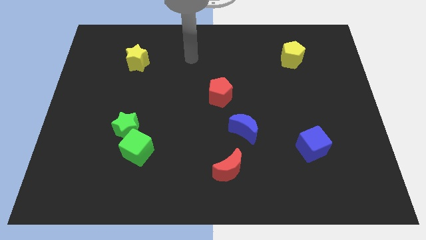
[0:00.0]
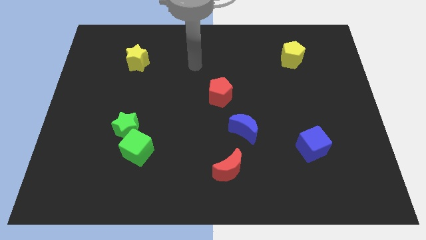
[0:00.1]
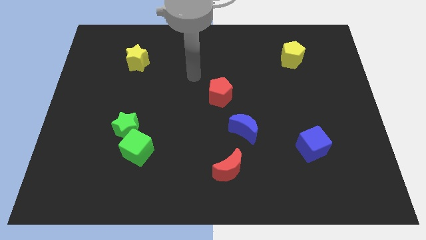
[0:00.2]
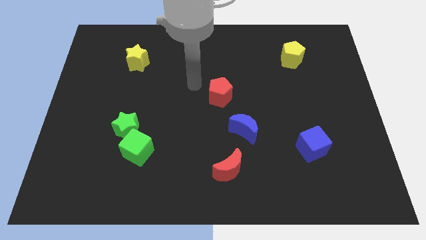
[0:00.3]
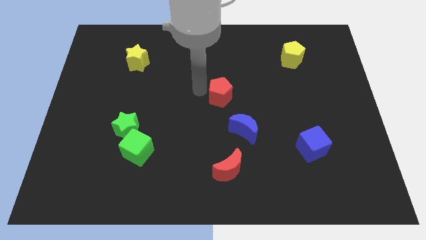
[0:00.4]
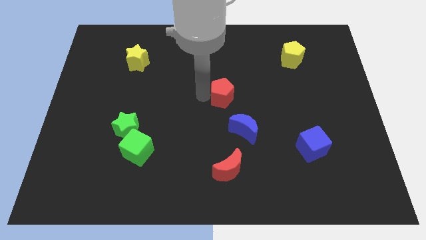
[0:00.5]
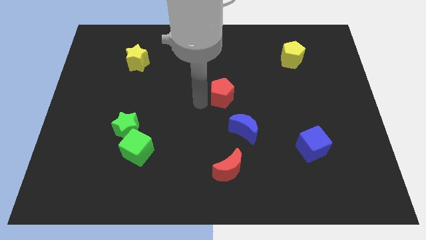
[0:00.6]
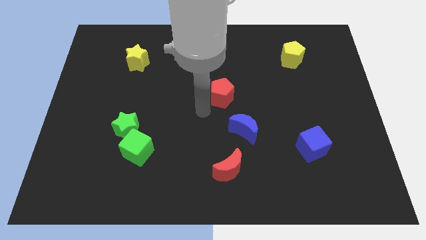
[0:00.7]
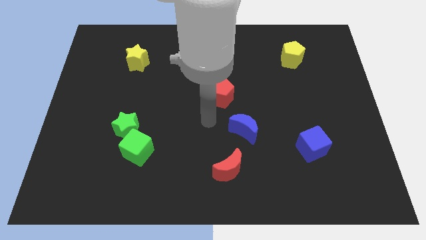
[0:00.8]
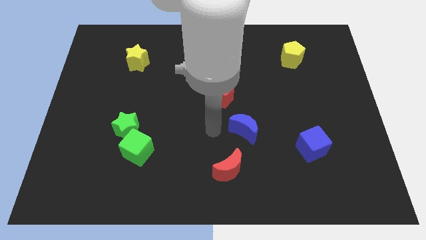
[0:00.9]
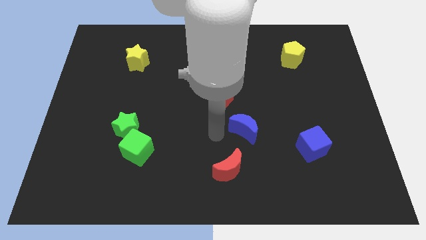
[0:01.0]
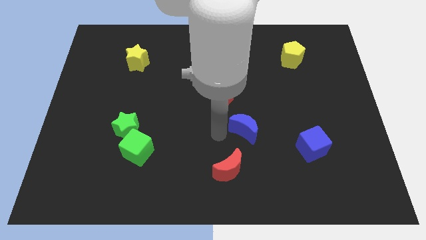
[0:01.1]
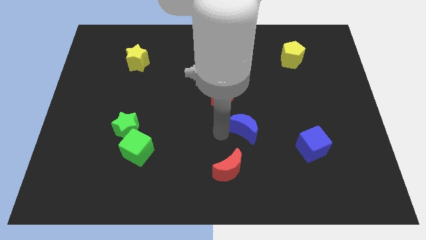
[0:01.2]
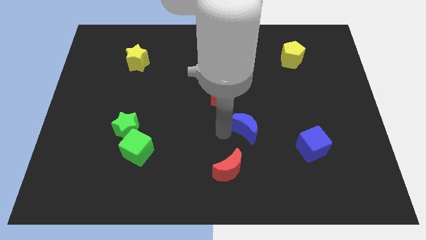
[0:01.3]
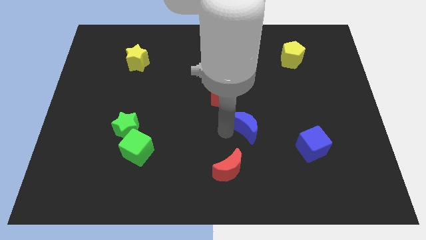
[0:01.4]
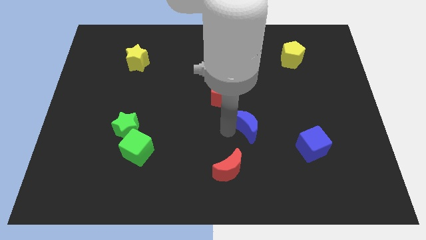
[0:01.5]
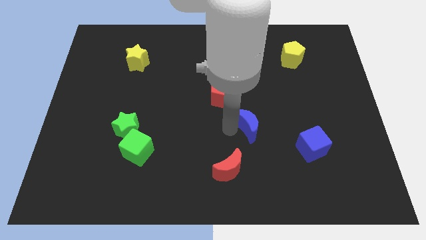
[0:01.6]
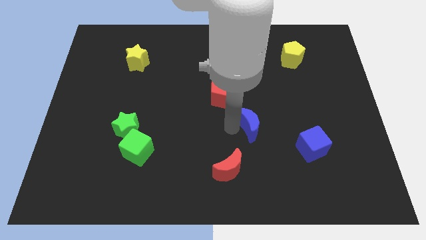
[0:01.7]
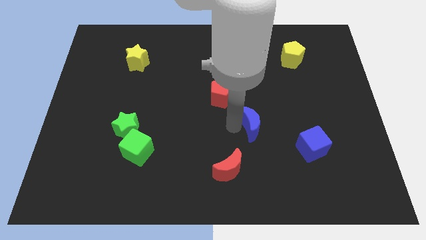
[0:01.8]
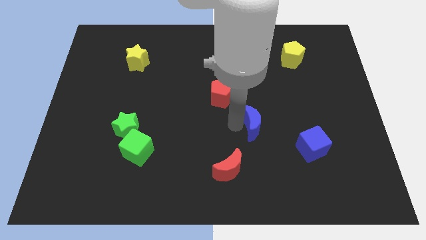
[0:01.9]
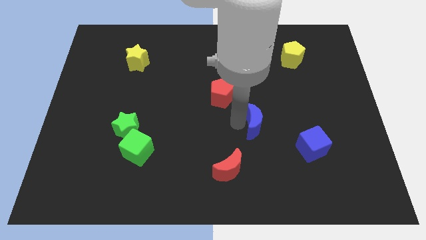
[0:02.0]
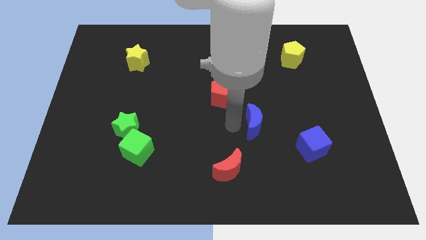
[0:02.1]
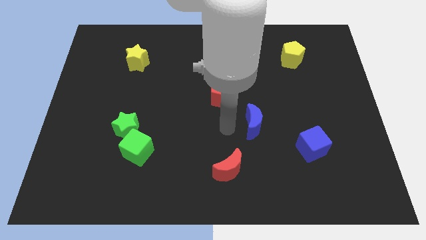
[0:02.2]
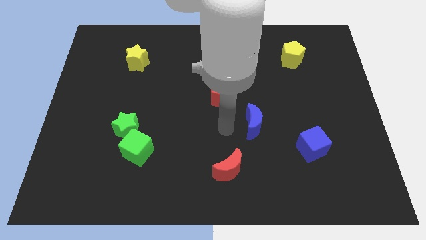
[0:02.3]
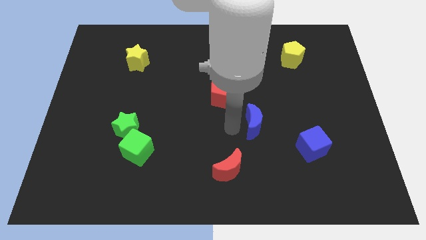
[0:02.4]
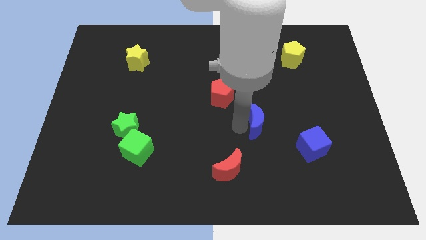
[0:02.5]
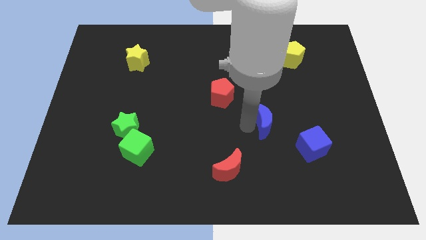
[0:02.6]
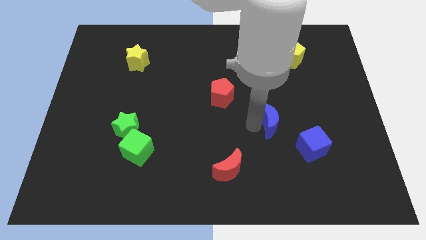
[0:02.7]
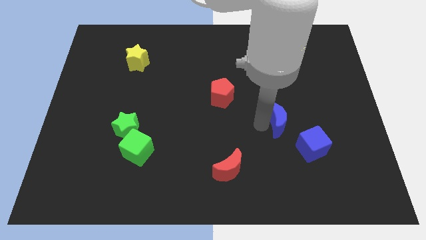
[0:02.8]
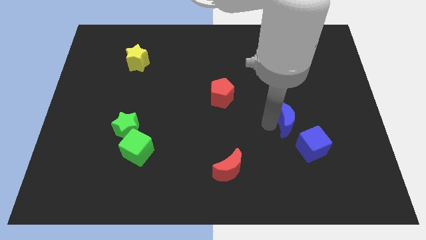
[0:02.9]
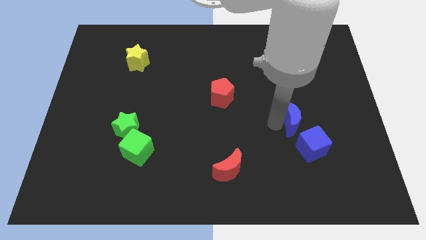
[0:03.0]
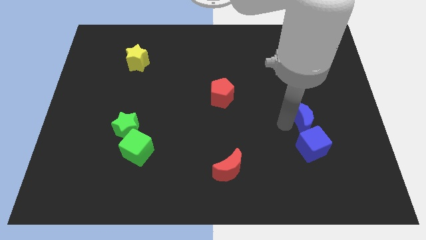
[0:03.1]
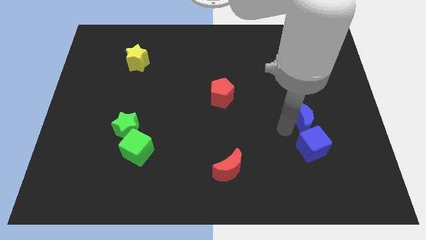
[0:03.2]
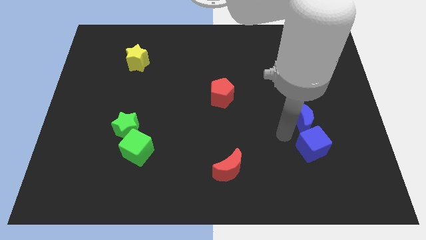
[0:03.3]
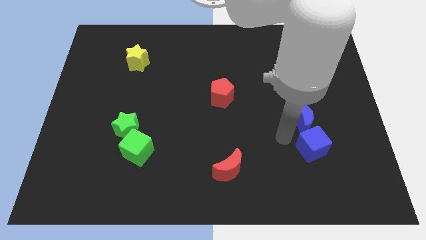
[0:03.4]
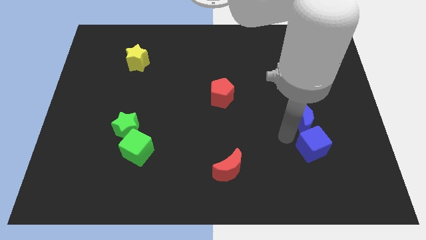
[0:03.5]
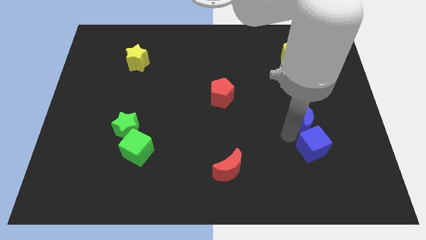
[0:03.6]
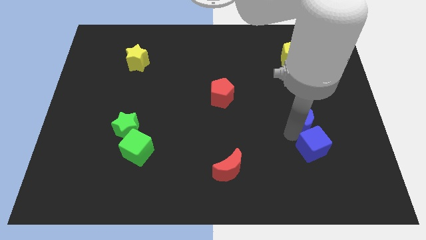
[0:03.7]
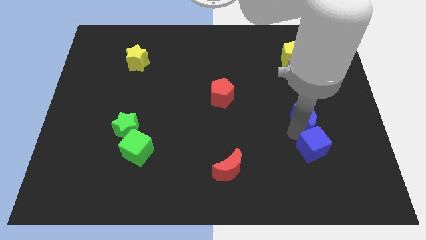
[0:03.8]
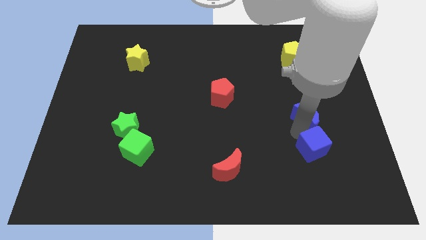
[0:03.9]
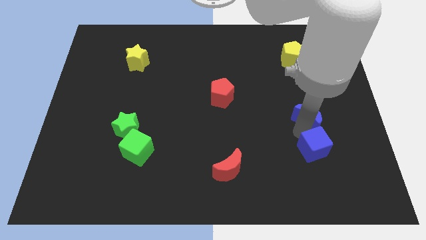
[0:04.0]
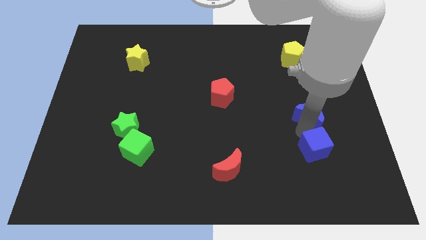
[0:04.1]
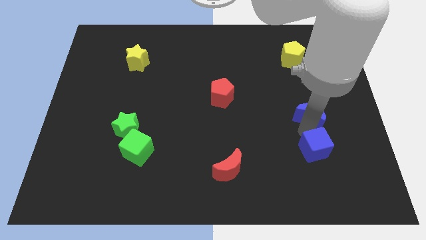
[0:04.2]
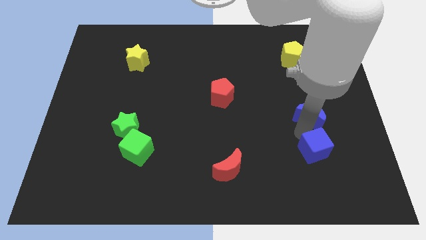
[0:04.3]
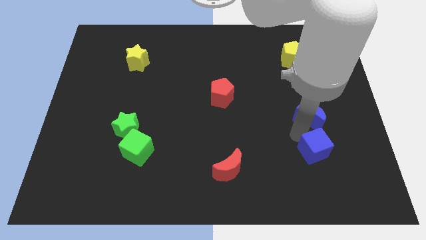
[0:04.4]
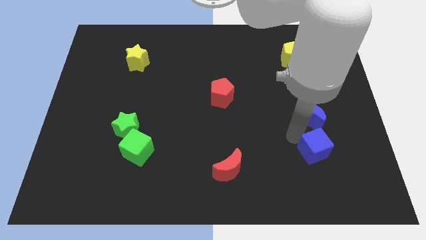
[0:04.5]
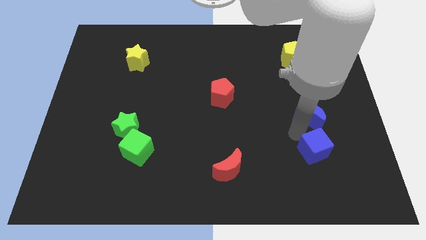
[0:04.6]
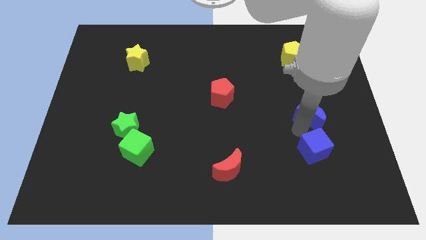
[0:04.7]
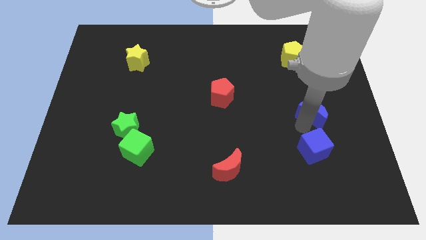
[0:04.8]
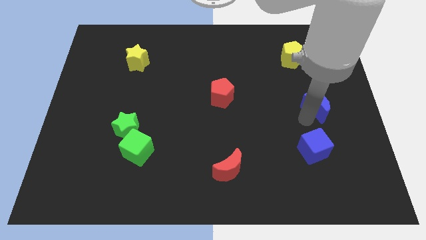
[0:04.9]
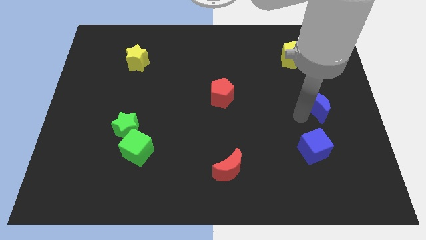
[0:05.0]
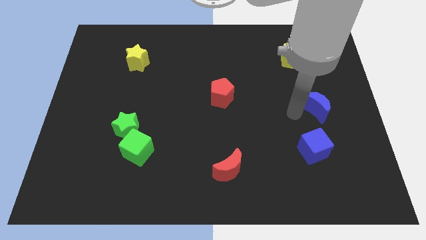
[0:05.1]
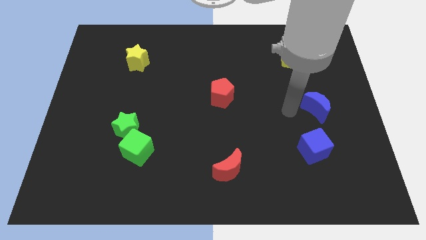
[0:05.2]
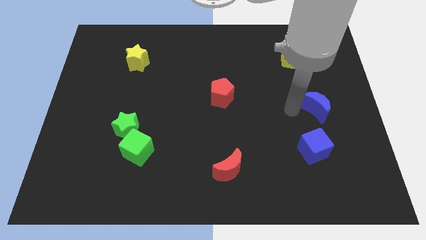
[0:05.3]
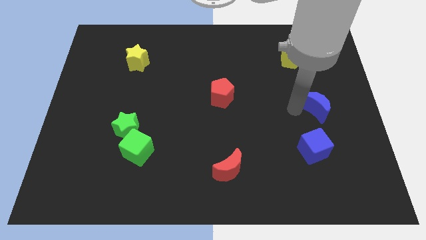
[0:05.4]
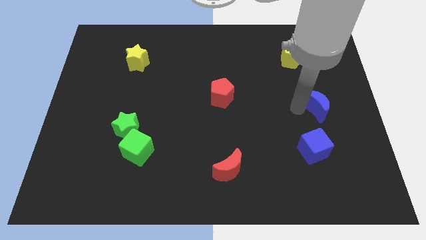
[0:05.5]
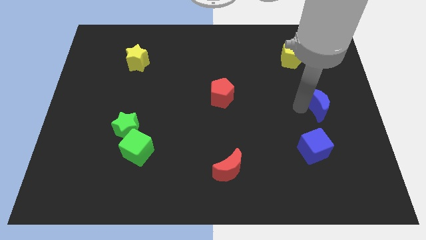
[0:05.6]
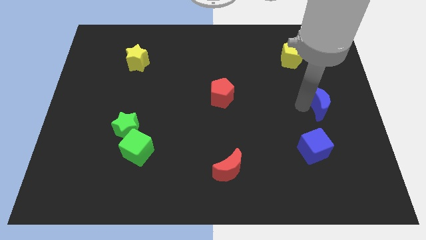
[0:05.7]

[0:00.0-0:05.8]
put the blue moon to the right side

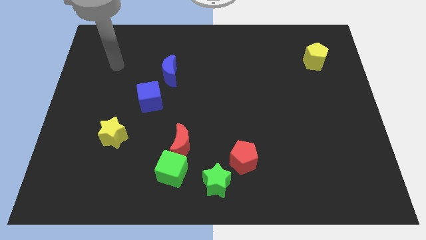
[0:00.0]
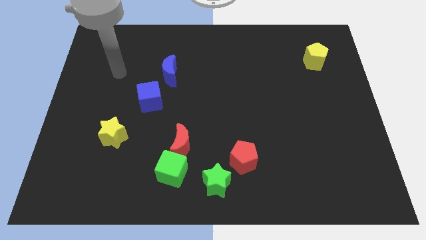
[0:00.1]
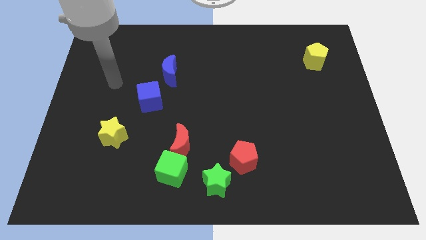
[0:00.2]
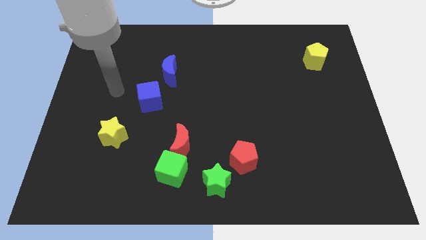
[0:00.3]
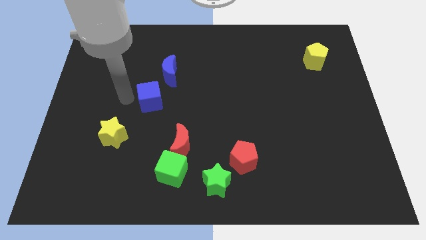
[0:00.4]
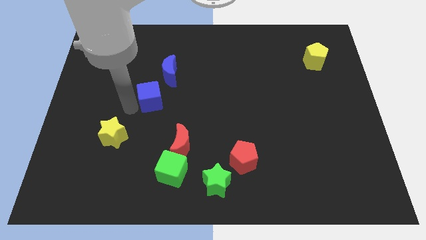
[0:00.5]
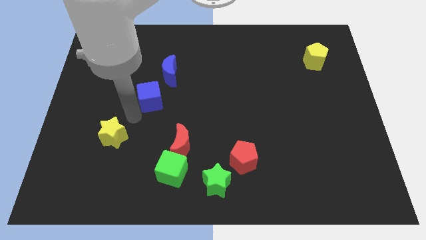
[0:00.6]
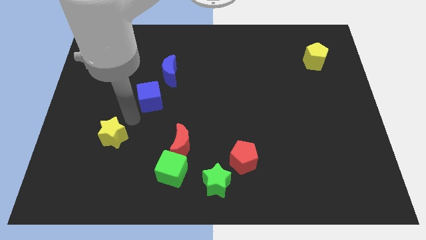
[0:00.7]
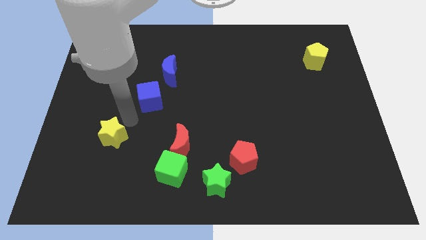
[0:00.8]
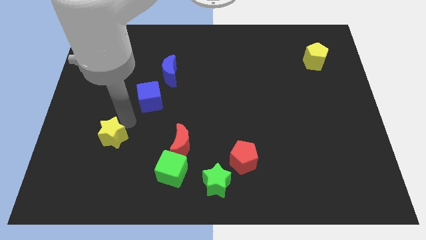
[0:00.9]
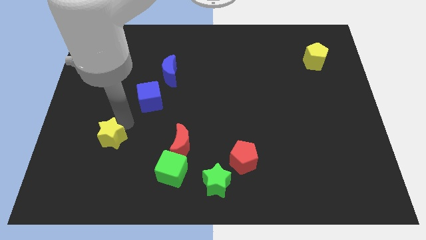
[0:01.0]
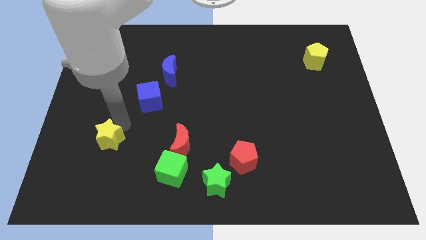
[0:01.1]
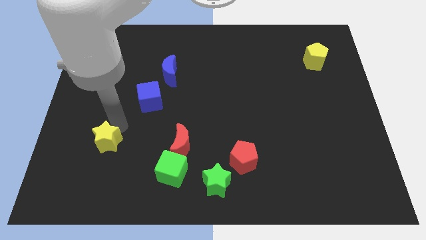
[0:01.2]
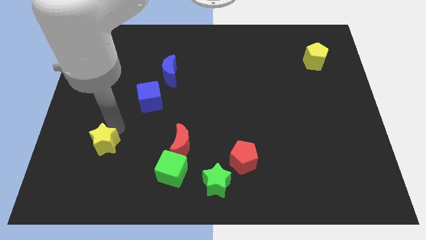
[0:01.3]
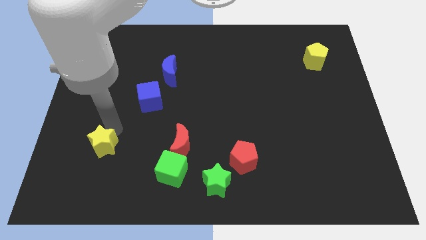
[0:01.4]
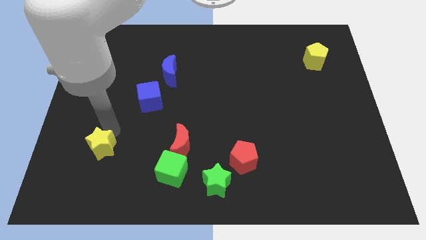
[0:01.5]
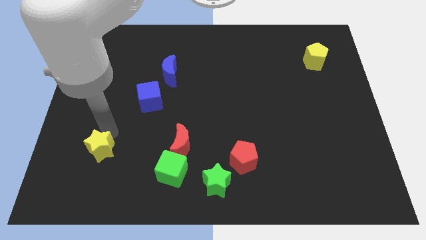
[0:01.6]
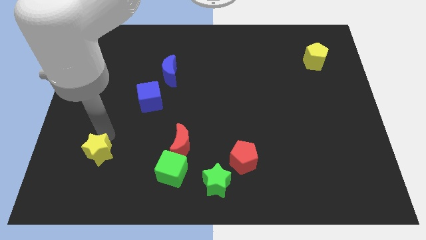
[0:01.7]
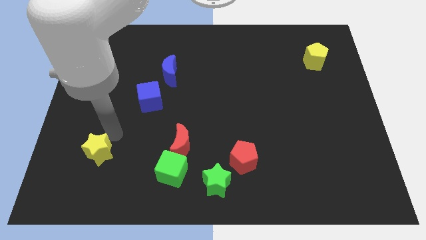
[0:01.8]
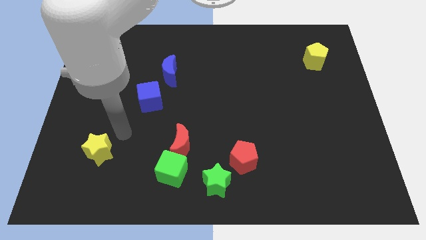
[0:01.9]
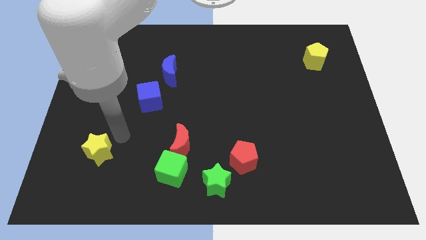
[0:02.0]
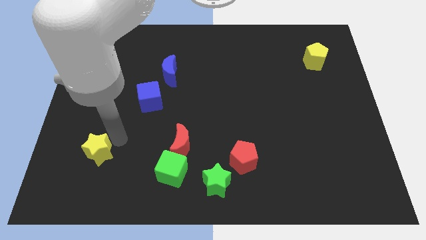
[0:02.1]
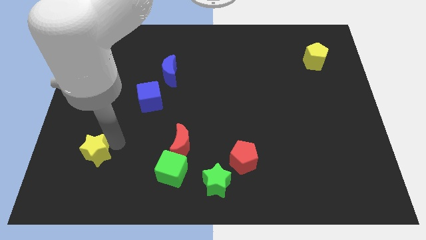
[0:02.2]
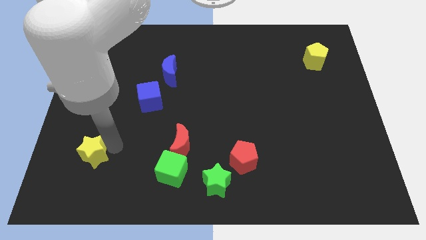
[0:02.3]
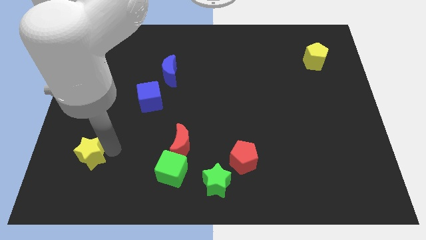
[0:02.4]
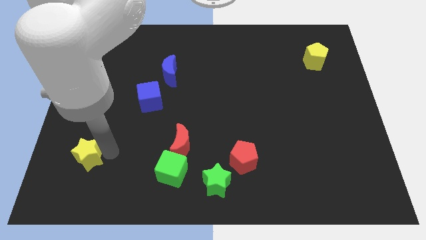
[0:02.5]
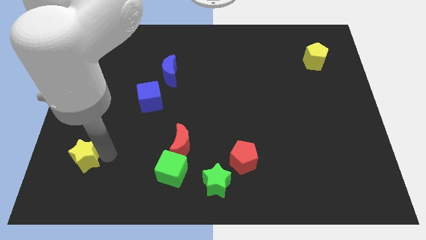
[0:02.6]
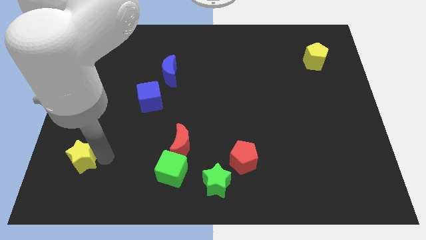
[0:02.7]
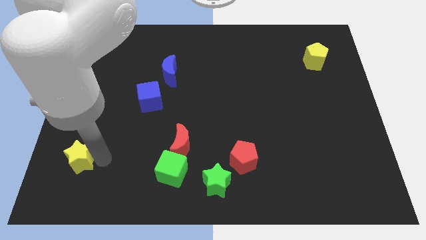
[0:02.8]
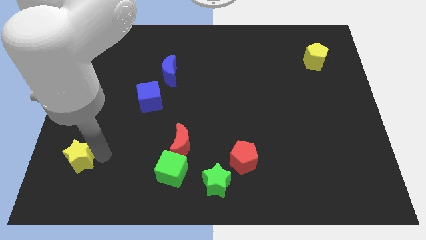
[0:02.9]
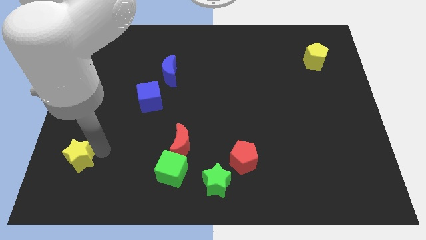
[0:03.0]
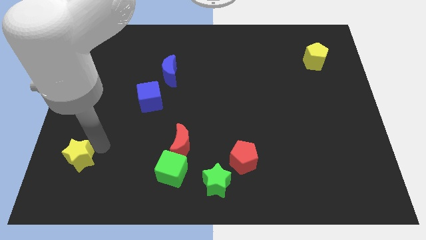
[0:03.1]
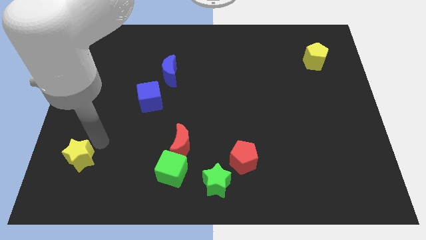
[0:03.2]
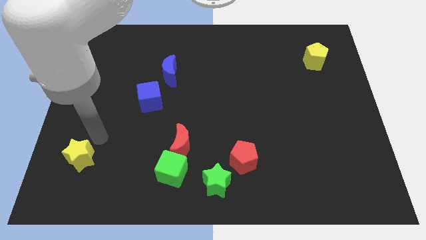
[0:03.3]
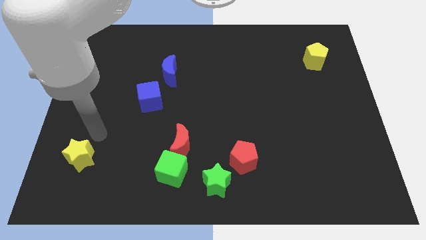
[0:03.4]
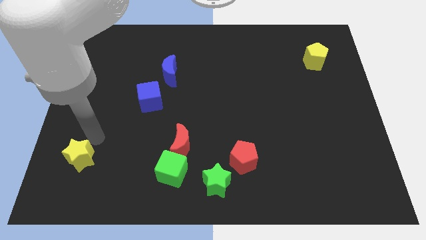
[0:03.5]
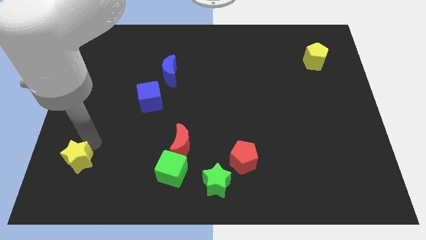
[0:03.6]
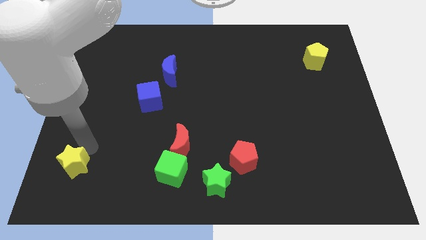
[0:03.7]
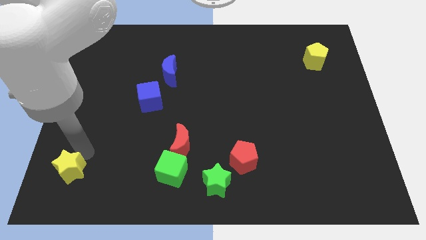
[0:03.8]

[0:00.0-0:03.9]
move the yellow star to the bottom left of the board
